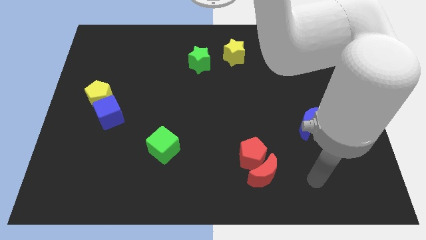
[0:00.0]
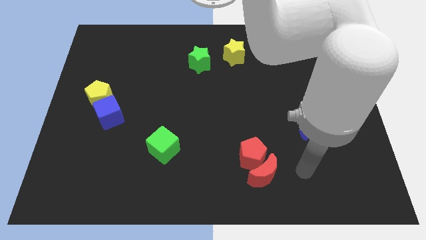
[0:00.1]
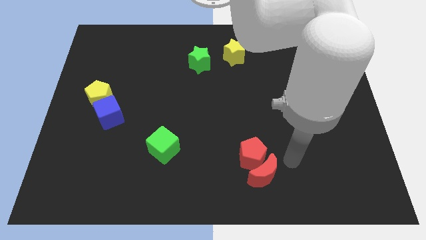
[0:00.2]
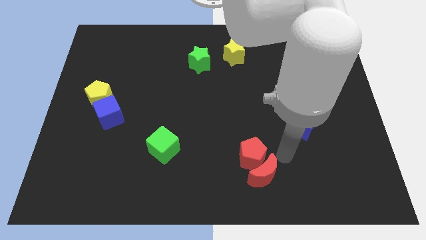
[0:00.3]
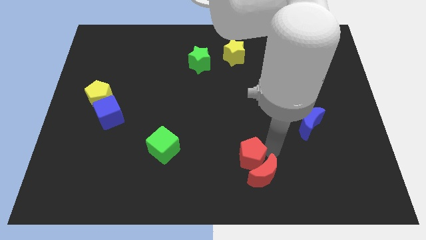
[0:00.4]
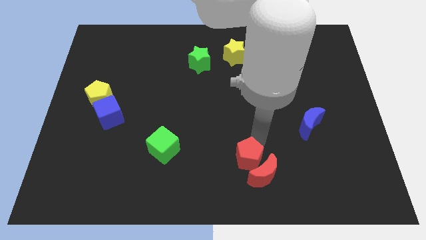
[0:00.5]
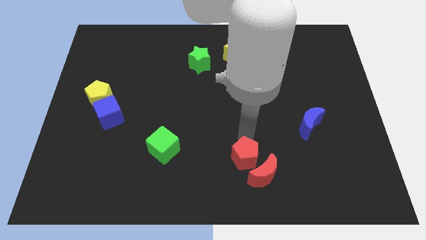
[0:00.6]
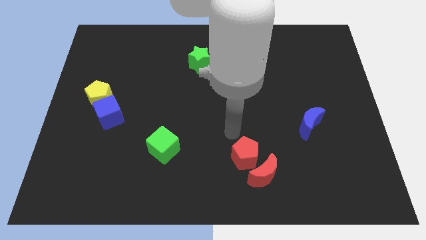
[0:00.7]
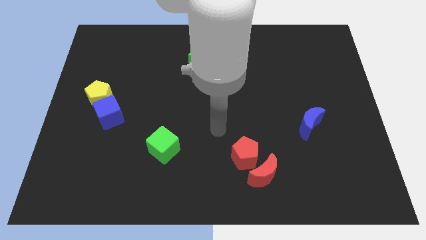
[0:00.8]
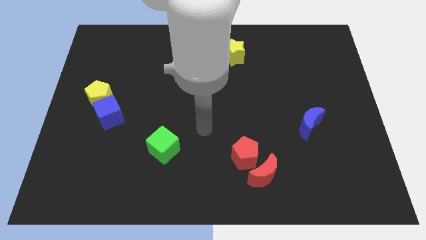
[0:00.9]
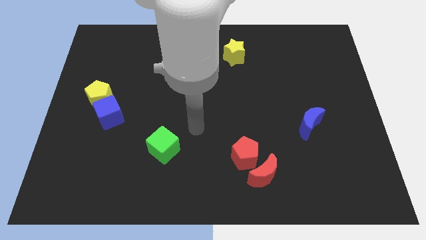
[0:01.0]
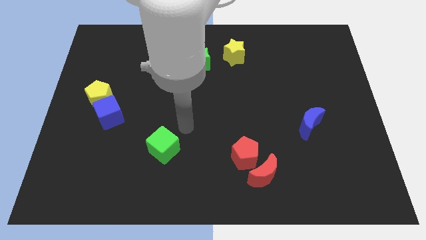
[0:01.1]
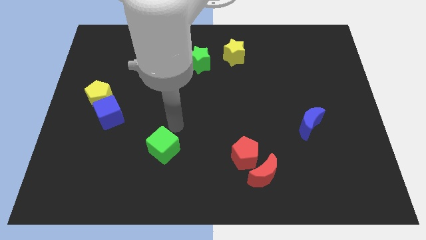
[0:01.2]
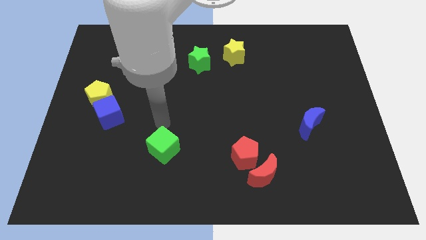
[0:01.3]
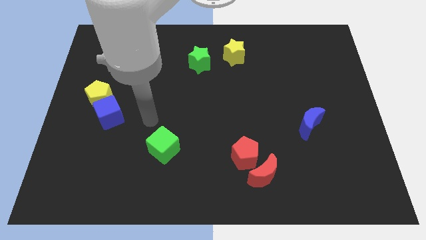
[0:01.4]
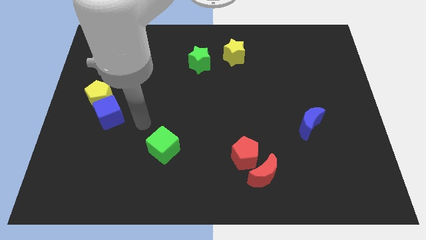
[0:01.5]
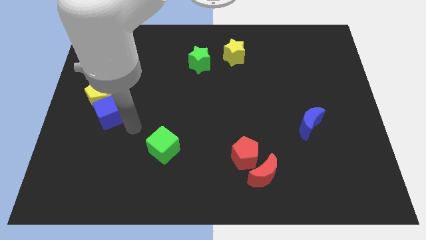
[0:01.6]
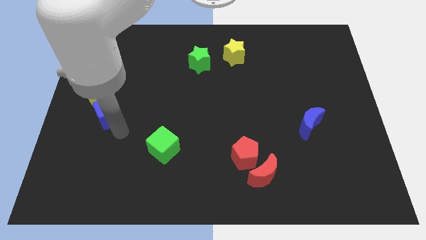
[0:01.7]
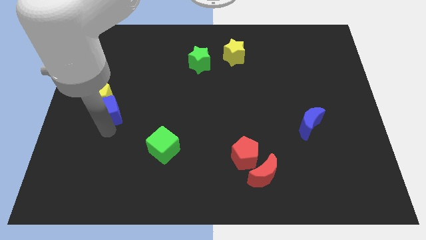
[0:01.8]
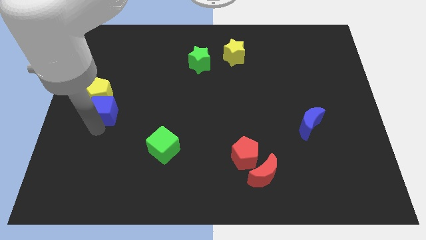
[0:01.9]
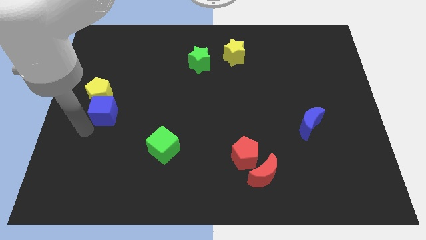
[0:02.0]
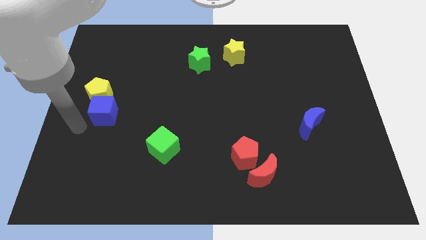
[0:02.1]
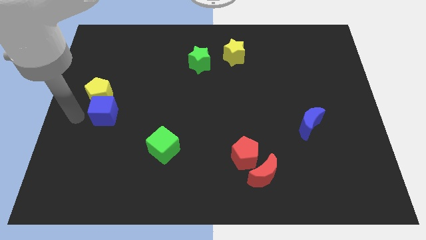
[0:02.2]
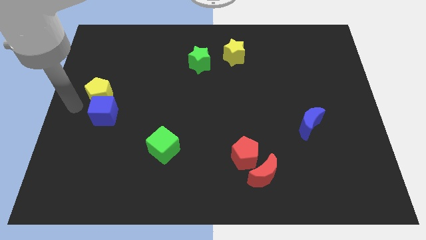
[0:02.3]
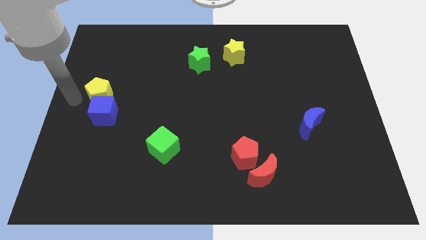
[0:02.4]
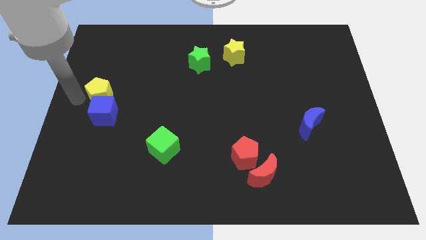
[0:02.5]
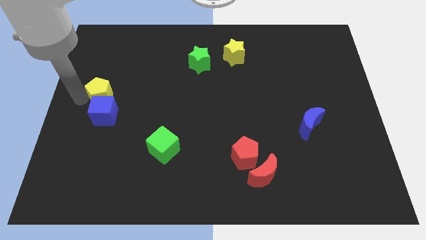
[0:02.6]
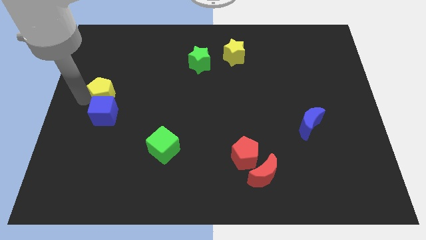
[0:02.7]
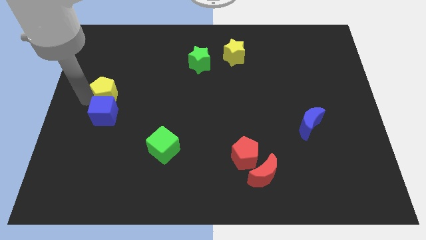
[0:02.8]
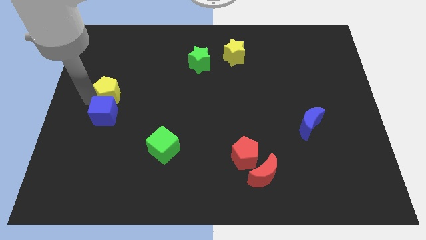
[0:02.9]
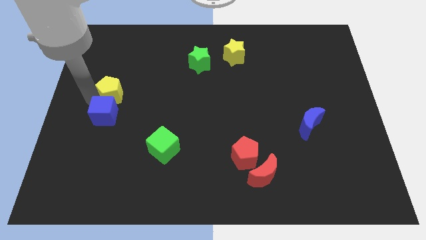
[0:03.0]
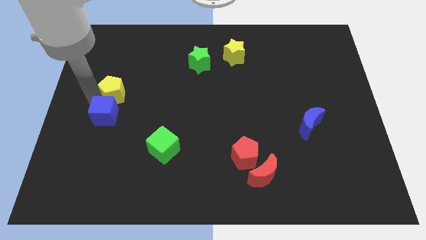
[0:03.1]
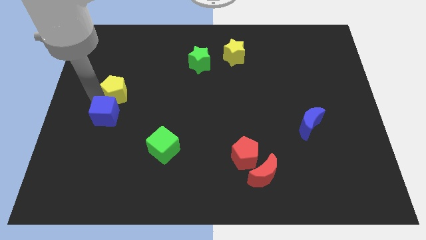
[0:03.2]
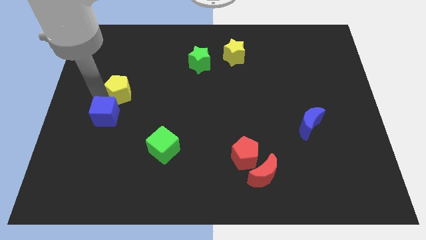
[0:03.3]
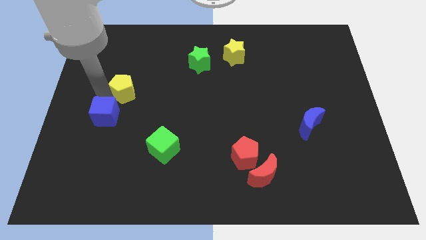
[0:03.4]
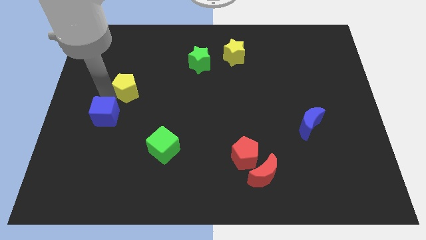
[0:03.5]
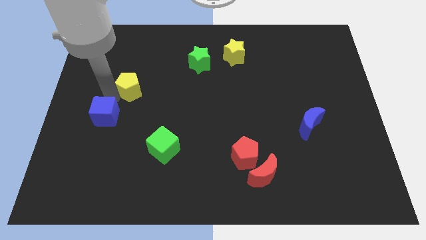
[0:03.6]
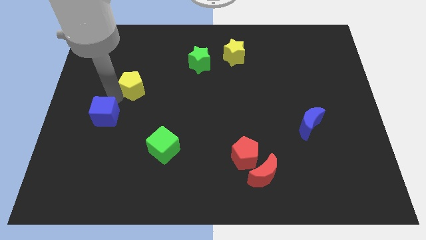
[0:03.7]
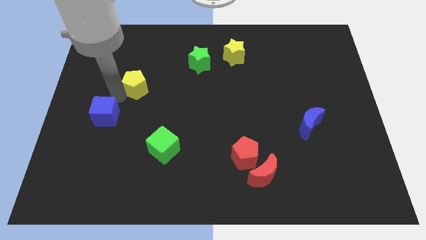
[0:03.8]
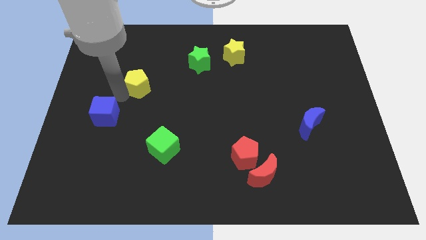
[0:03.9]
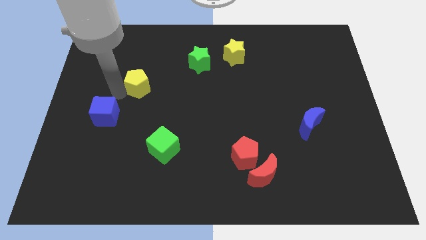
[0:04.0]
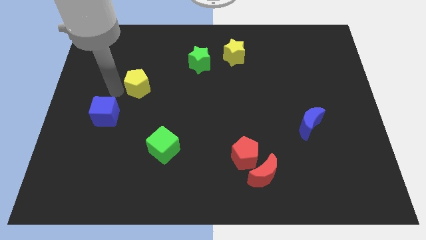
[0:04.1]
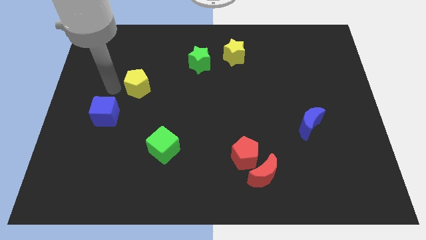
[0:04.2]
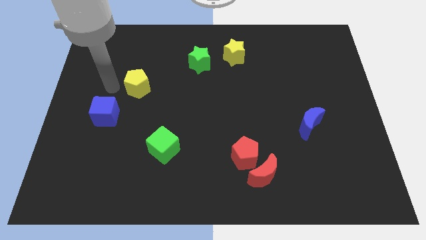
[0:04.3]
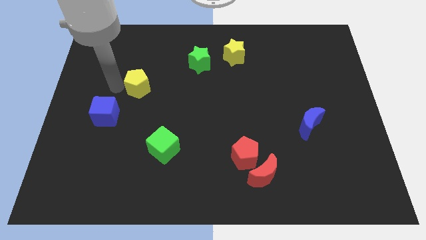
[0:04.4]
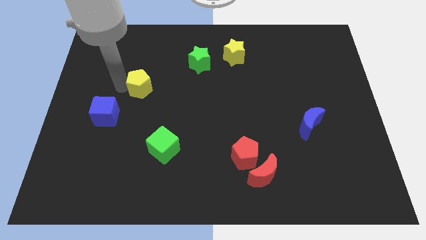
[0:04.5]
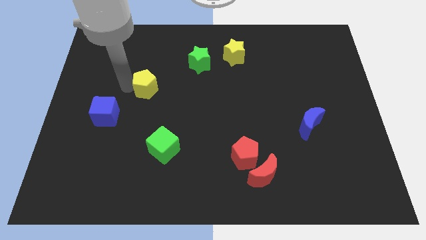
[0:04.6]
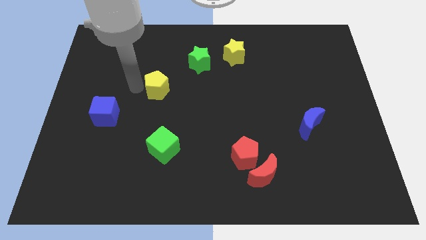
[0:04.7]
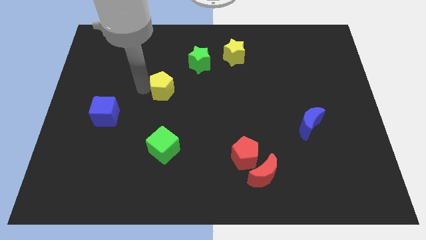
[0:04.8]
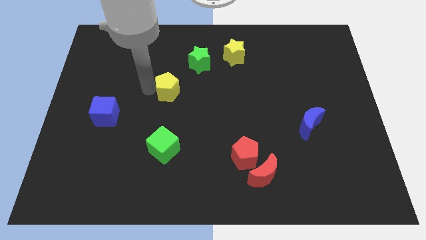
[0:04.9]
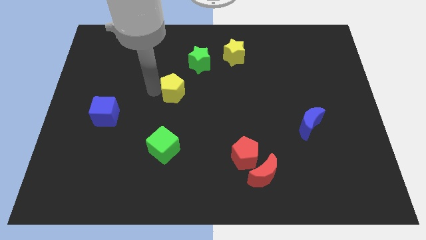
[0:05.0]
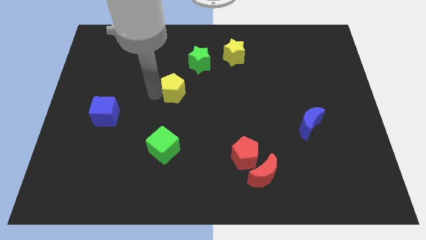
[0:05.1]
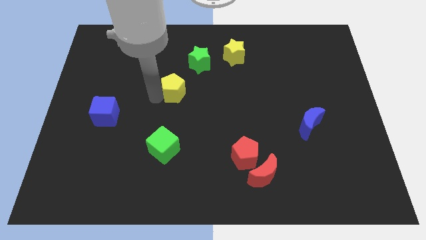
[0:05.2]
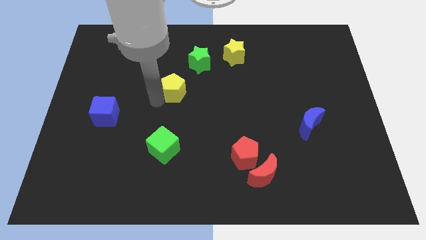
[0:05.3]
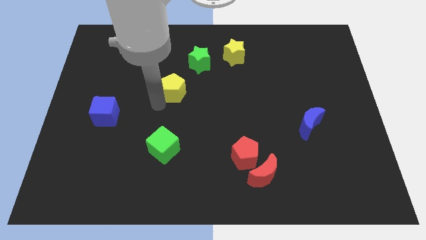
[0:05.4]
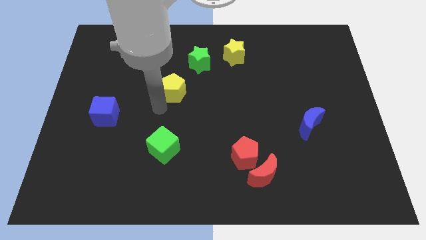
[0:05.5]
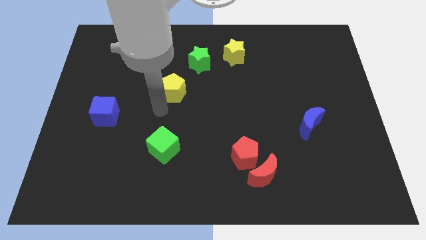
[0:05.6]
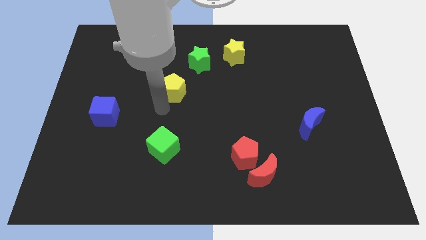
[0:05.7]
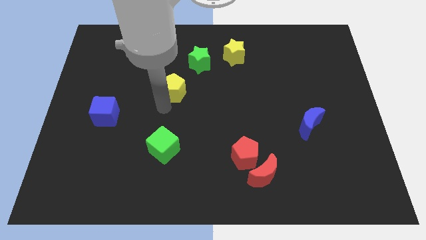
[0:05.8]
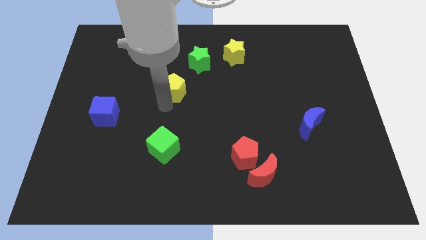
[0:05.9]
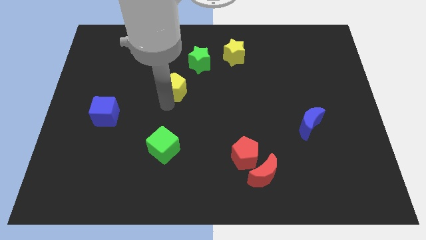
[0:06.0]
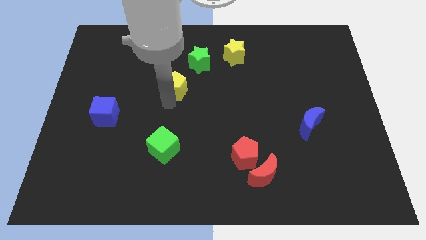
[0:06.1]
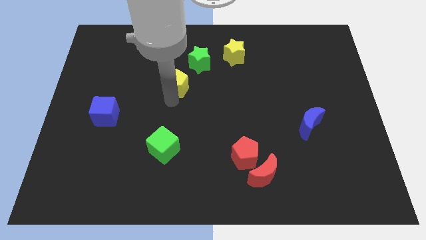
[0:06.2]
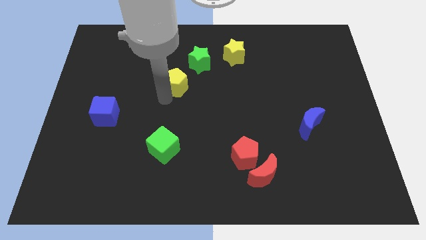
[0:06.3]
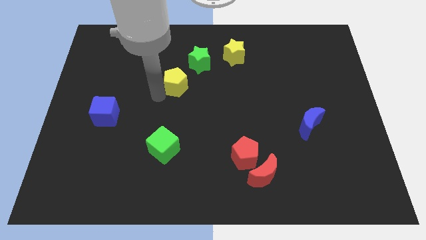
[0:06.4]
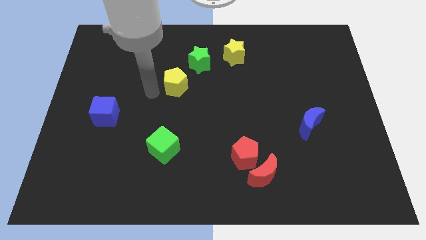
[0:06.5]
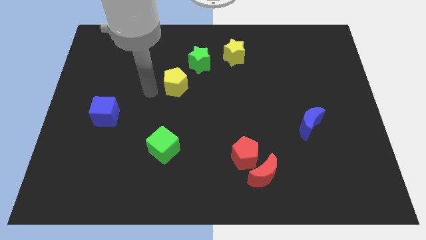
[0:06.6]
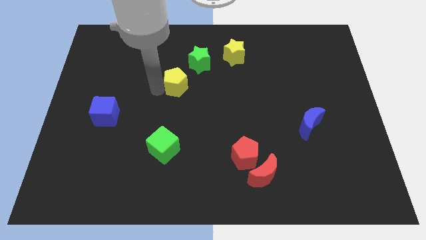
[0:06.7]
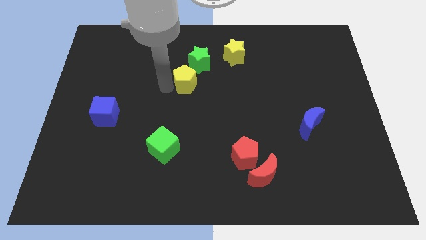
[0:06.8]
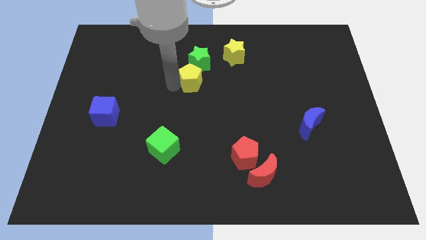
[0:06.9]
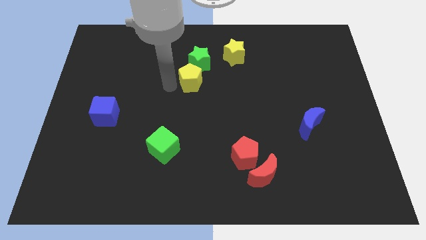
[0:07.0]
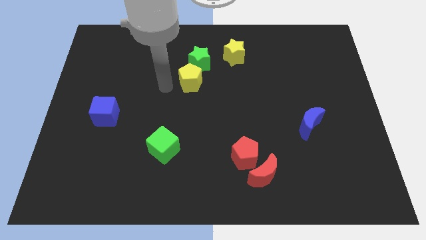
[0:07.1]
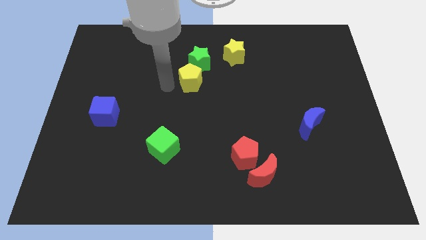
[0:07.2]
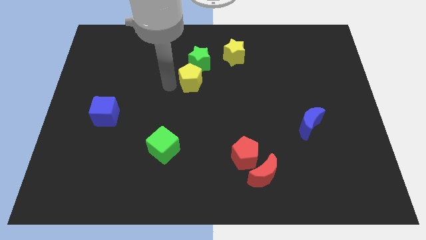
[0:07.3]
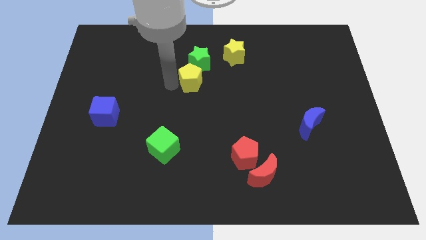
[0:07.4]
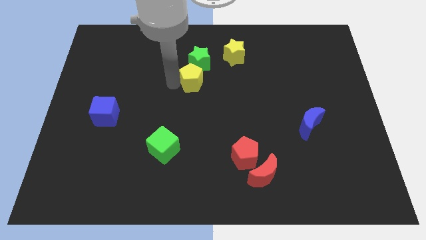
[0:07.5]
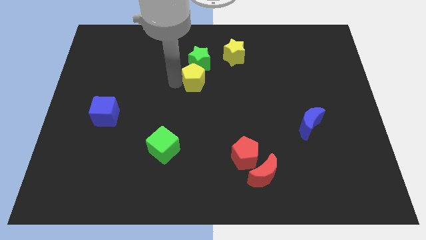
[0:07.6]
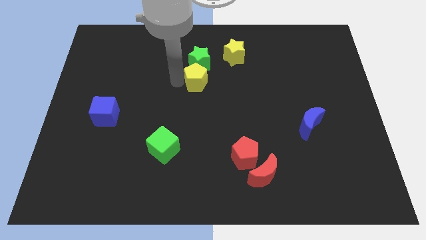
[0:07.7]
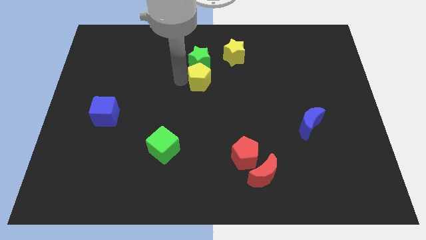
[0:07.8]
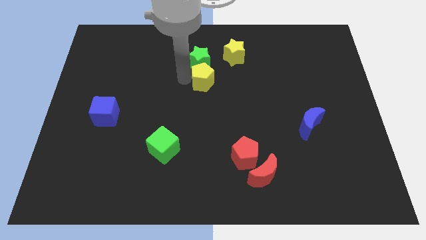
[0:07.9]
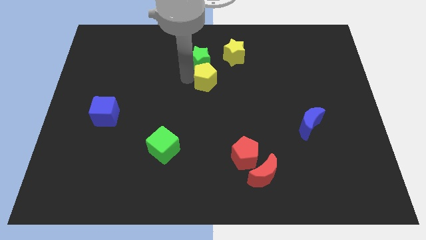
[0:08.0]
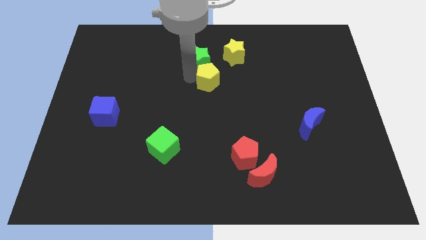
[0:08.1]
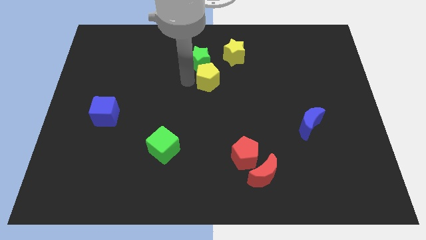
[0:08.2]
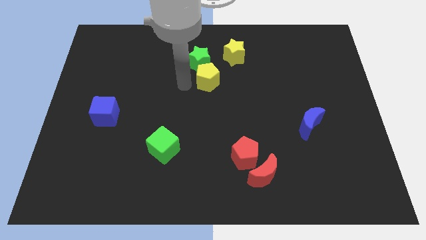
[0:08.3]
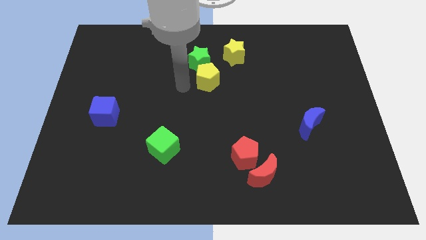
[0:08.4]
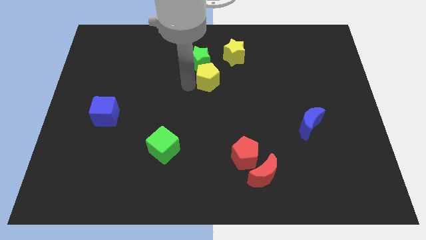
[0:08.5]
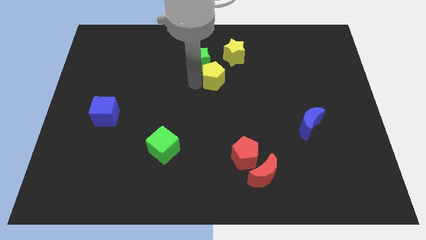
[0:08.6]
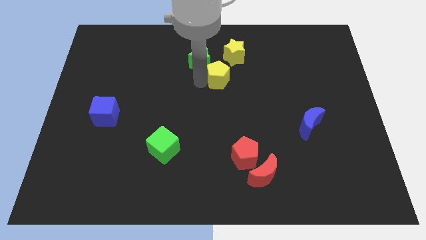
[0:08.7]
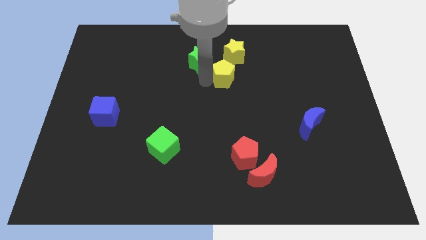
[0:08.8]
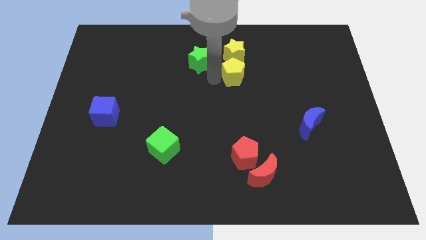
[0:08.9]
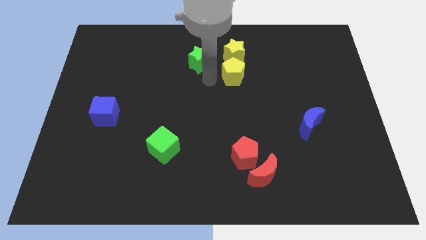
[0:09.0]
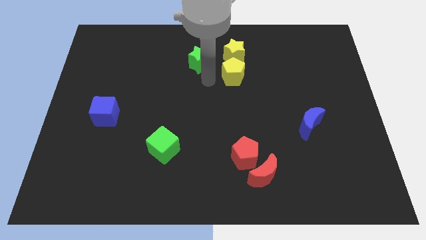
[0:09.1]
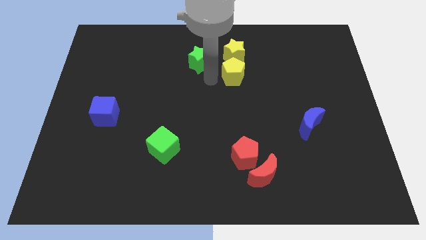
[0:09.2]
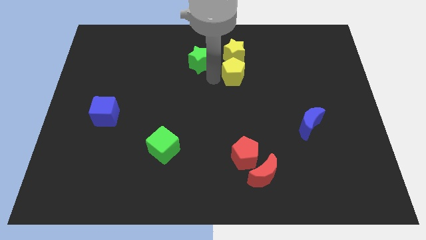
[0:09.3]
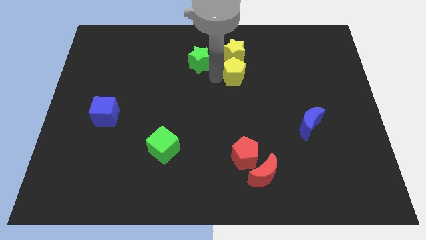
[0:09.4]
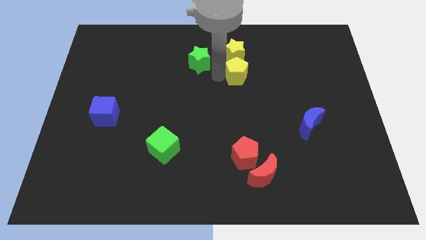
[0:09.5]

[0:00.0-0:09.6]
put the yellow pentagon to the bottom right of the yellow star
